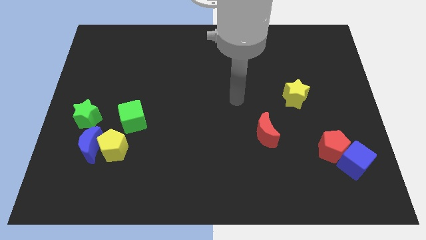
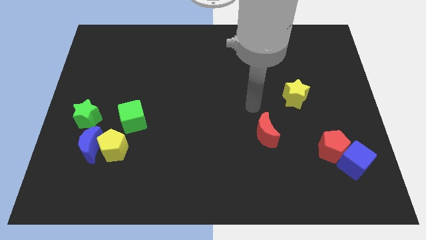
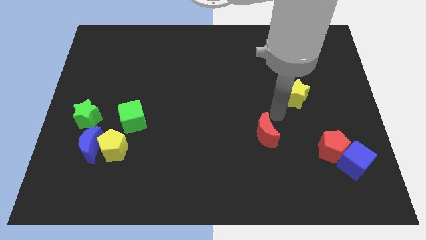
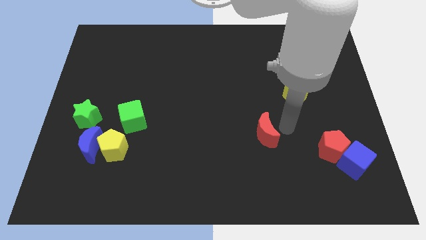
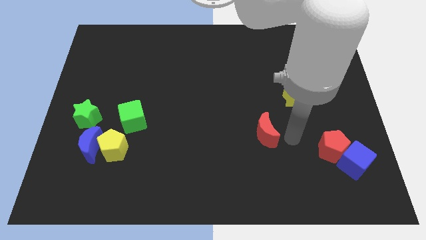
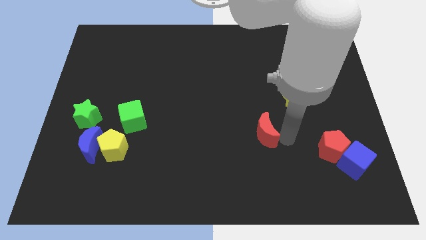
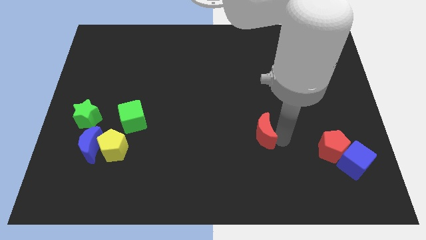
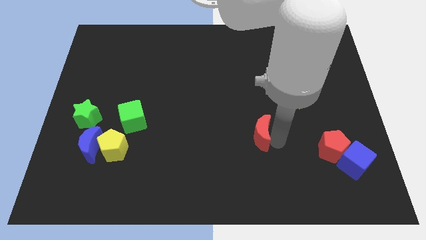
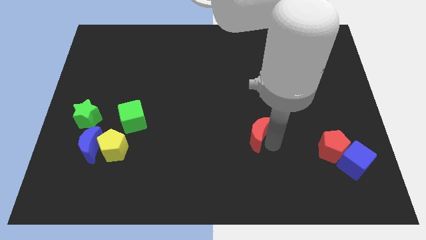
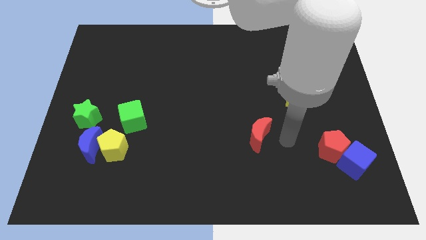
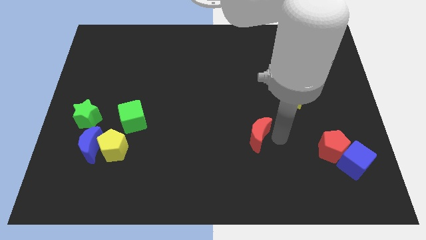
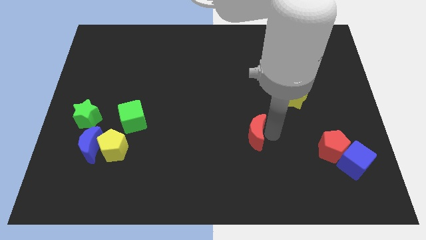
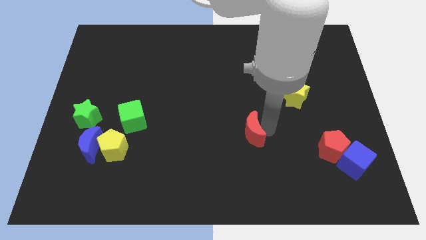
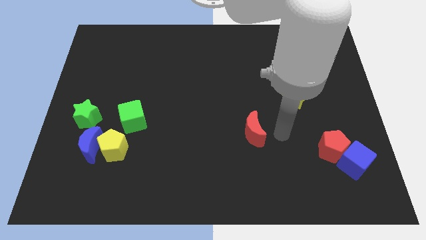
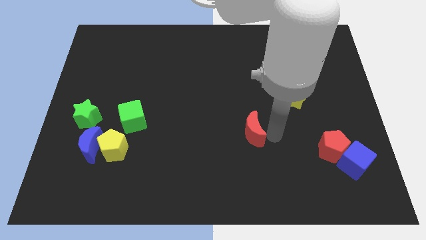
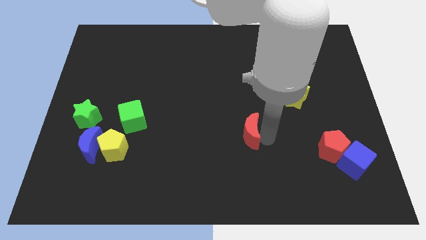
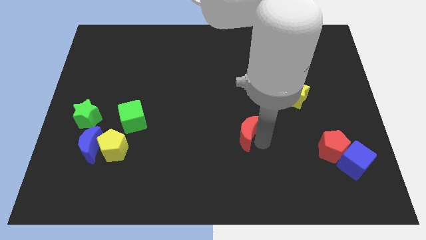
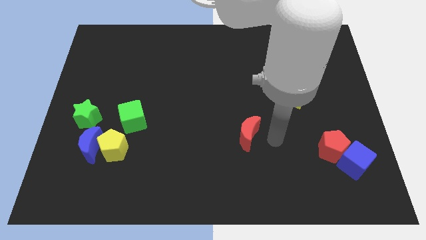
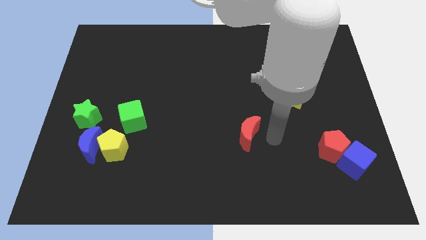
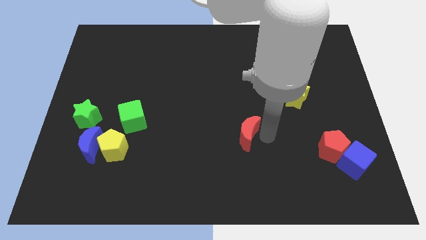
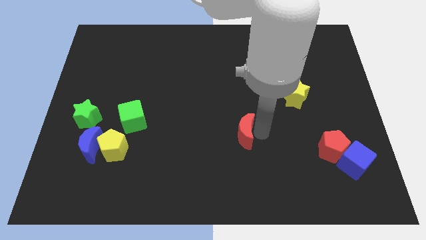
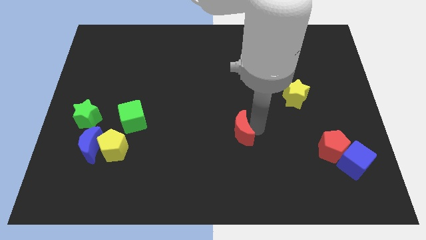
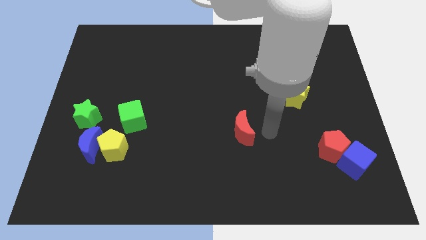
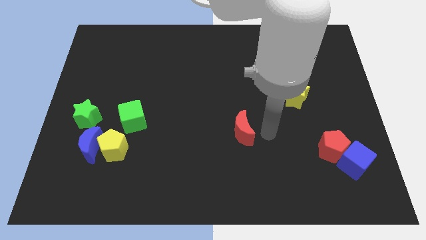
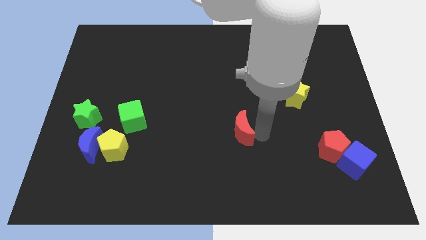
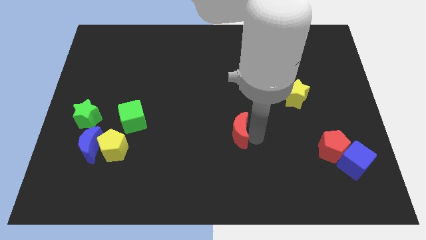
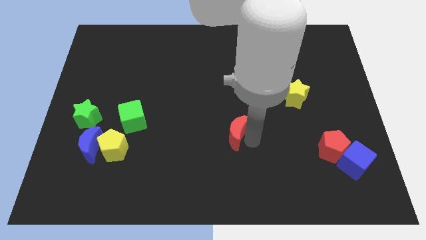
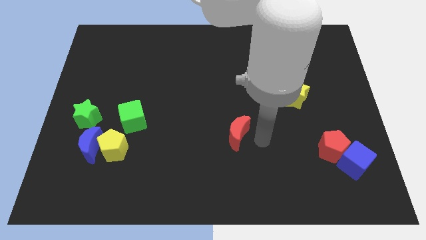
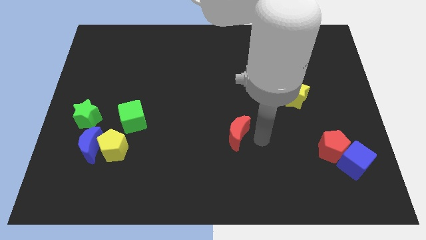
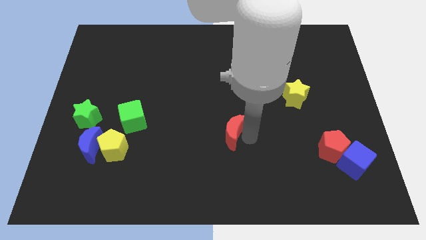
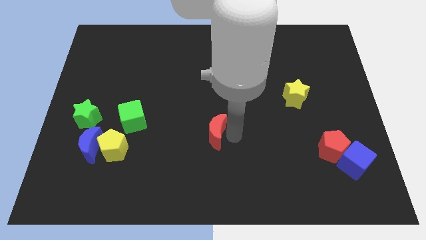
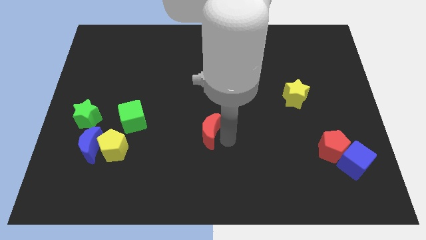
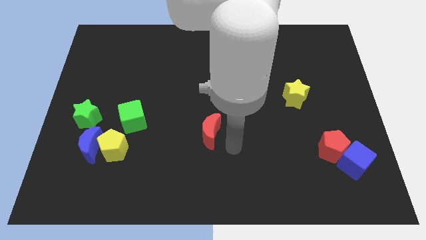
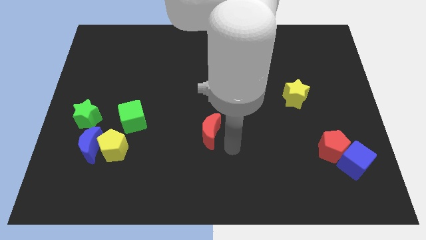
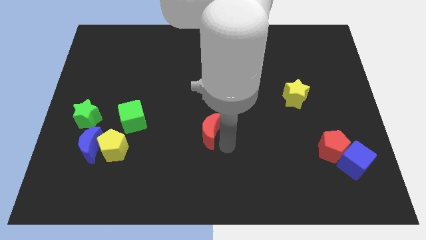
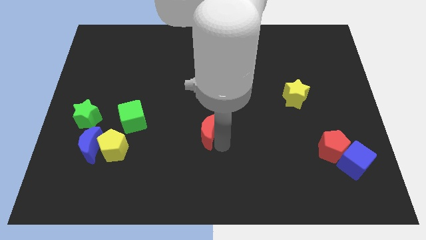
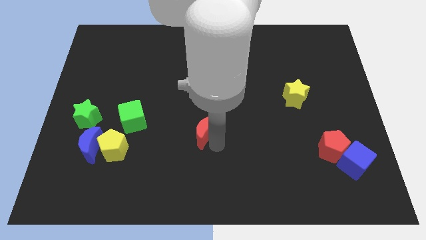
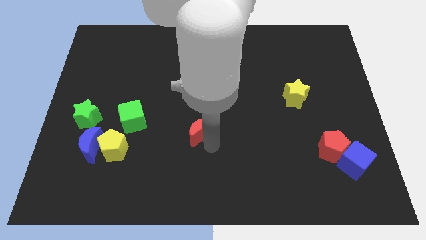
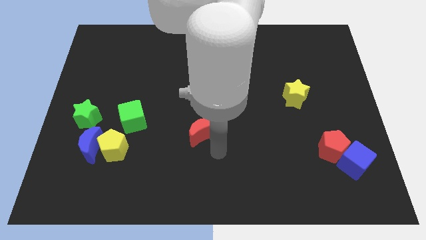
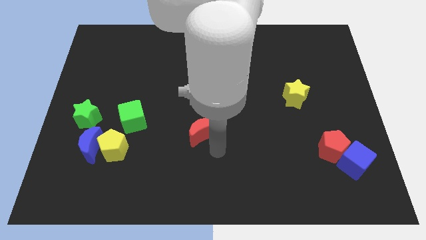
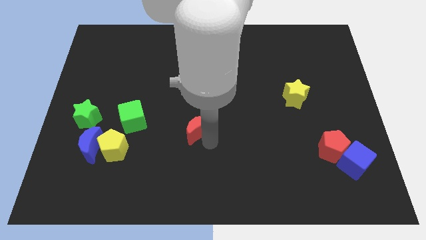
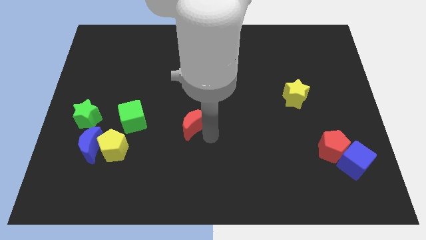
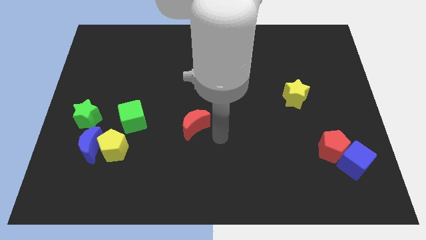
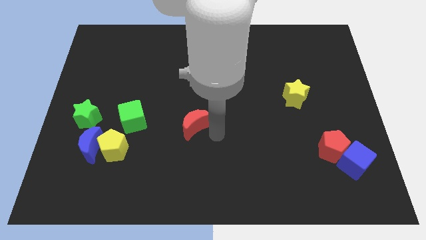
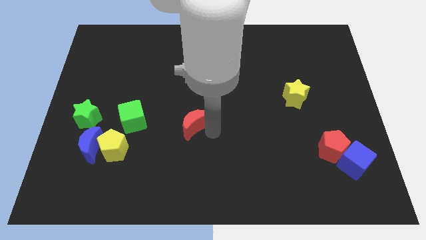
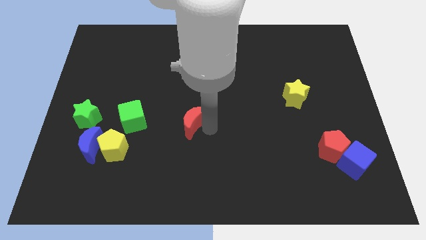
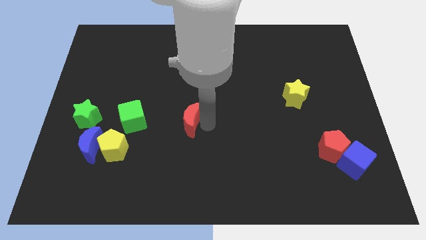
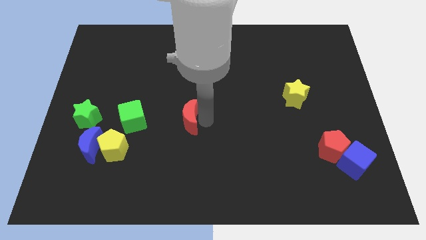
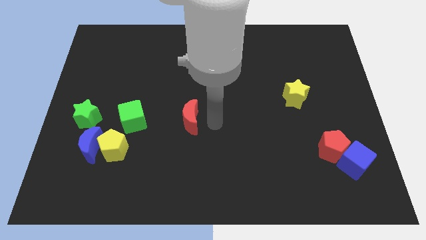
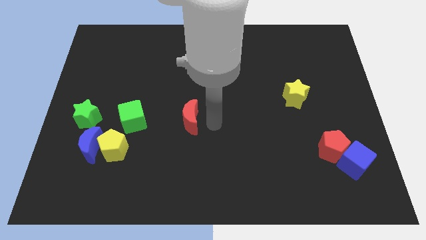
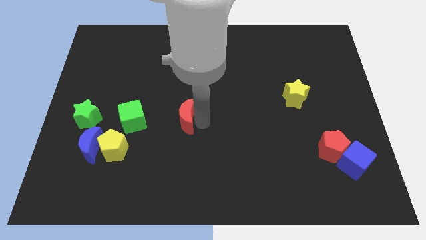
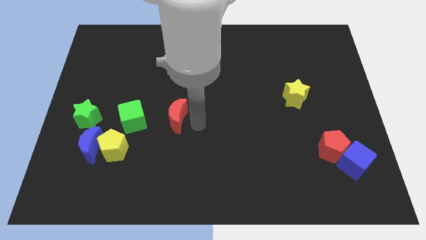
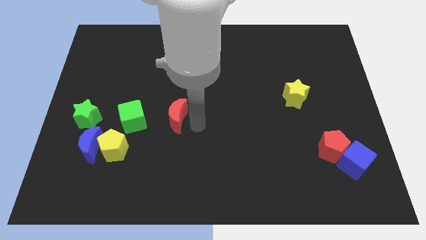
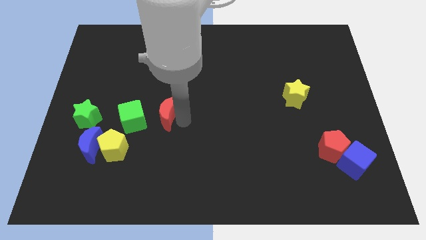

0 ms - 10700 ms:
slide the red moon to the left

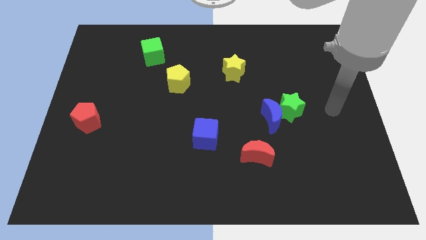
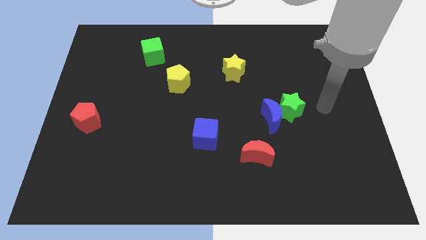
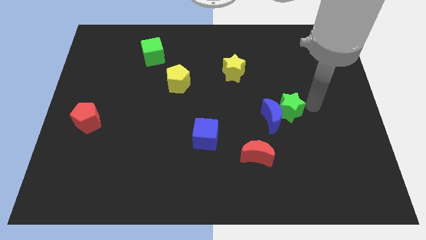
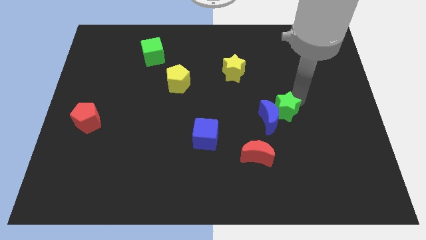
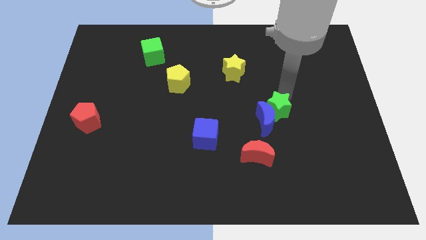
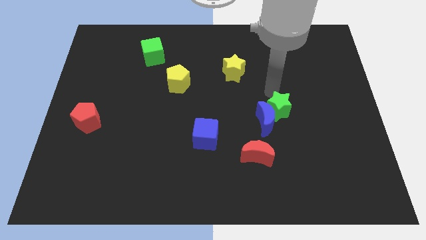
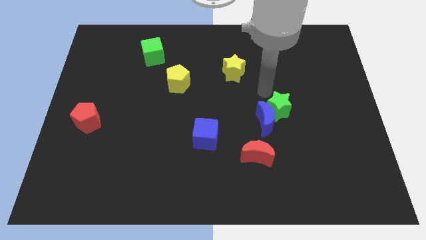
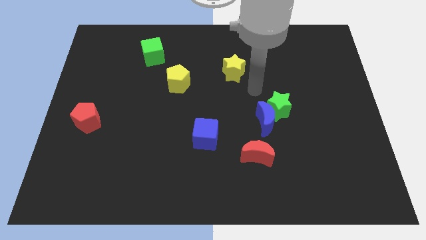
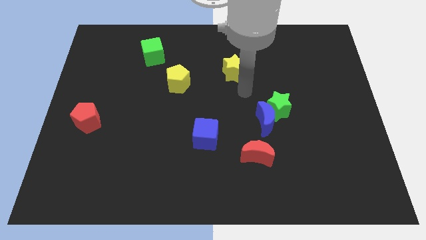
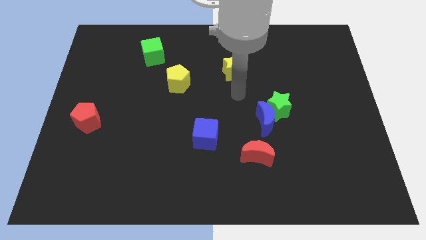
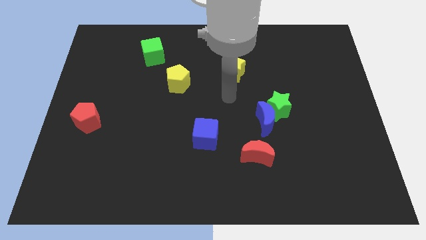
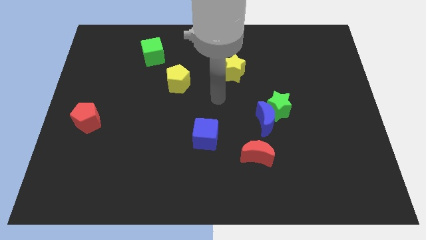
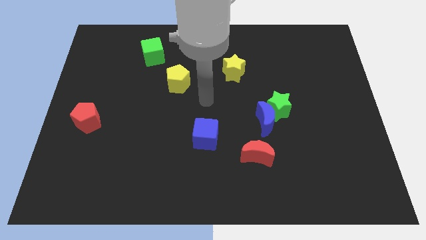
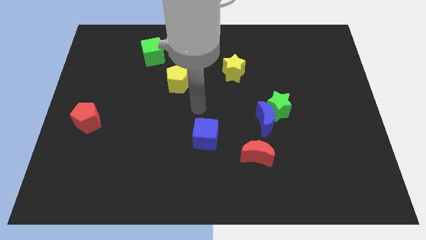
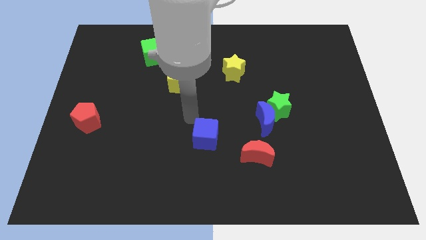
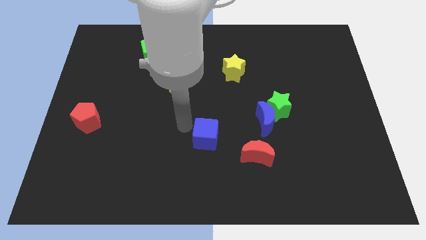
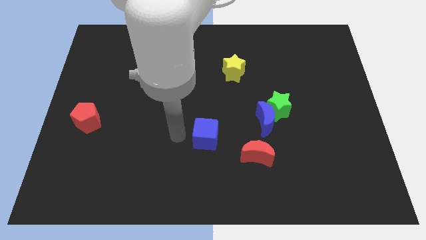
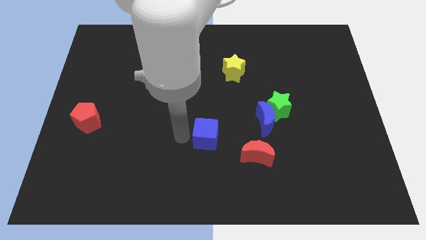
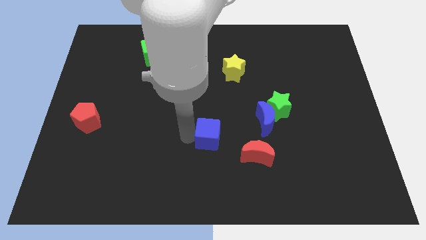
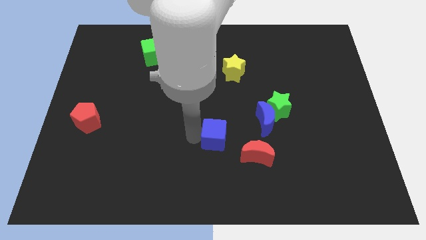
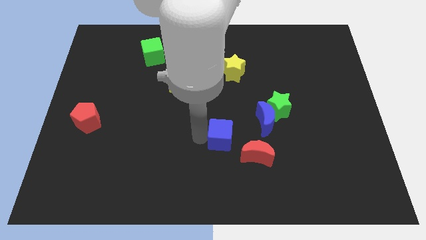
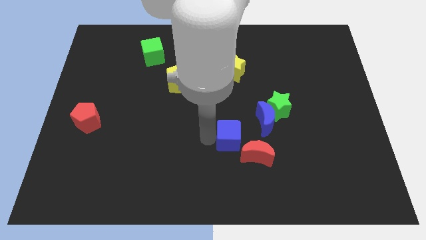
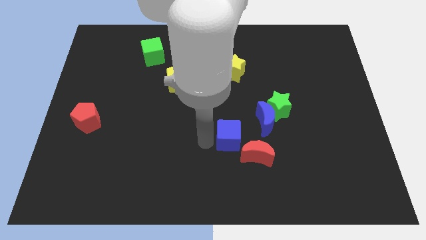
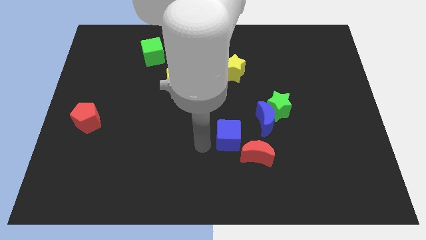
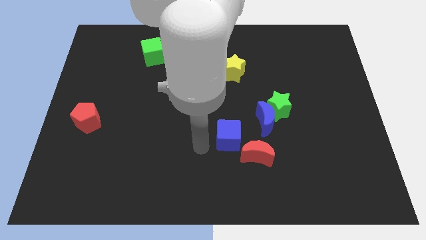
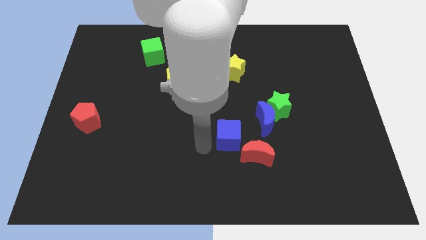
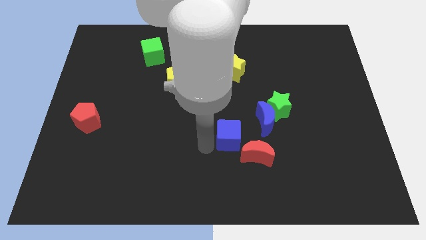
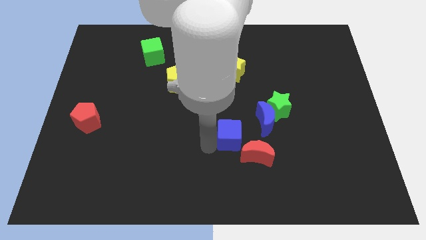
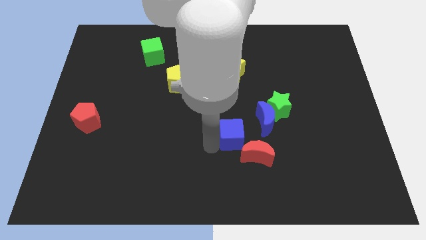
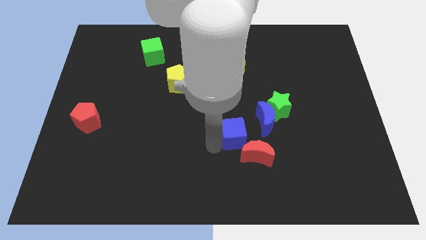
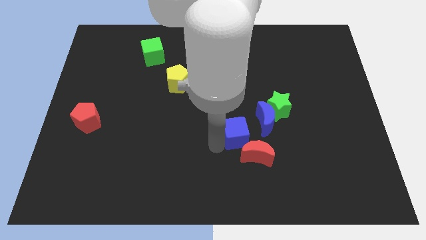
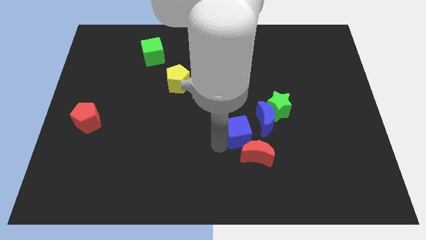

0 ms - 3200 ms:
push the blue cube a little bit right
